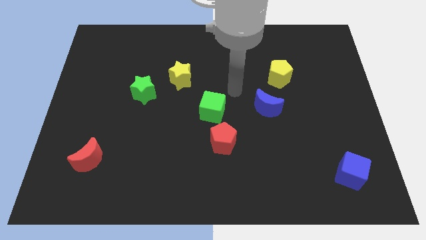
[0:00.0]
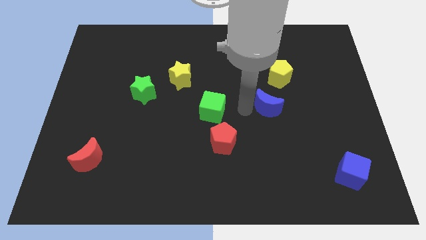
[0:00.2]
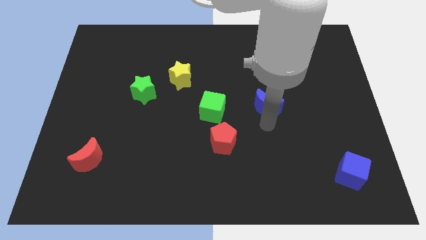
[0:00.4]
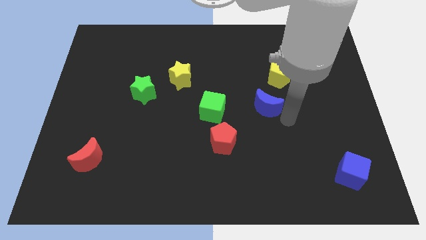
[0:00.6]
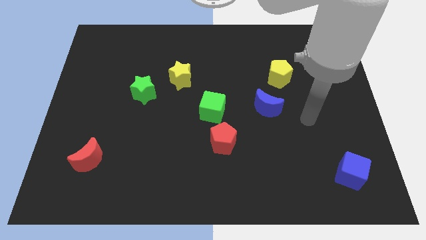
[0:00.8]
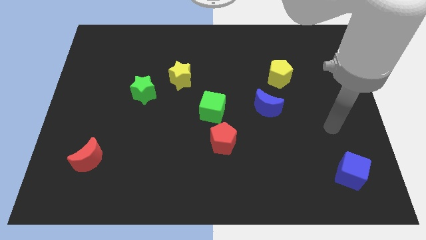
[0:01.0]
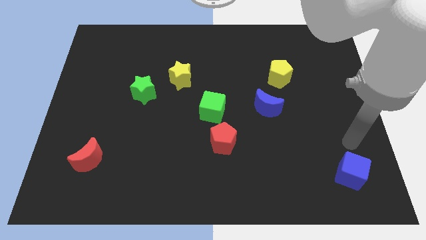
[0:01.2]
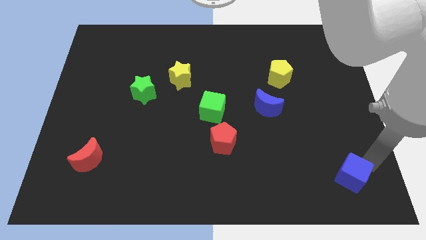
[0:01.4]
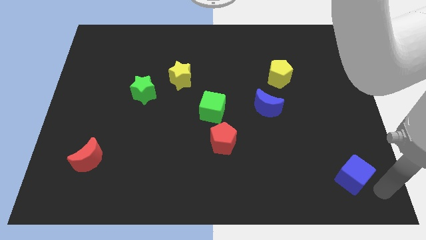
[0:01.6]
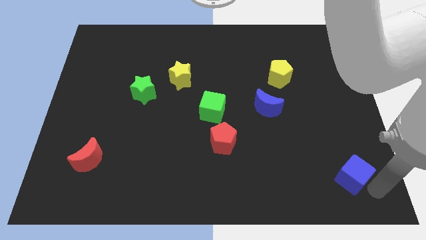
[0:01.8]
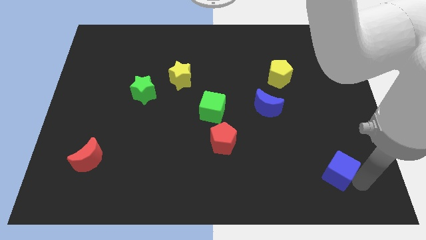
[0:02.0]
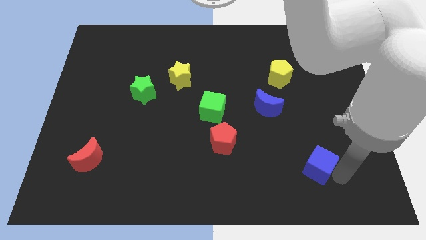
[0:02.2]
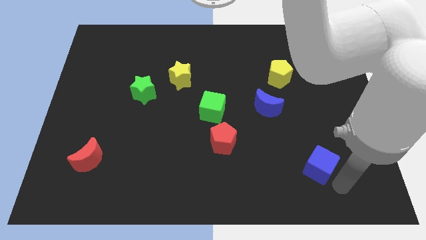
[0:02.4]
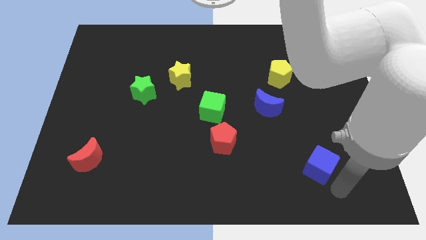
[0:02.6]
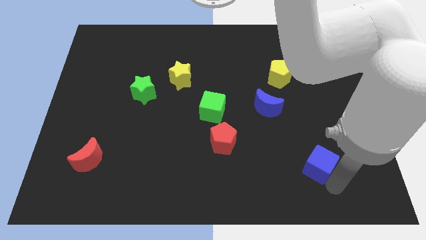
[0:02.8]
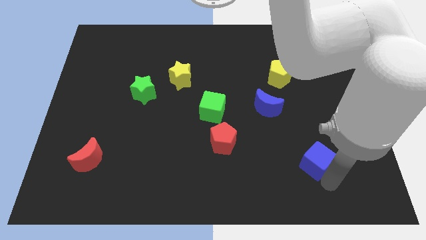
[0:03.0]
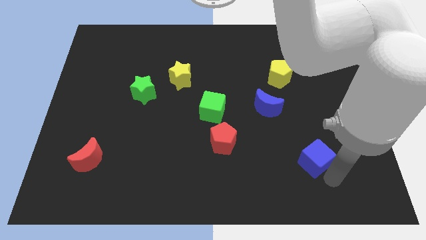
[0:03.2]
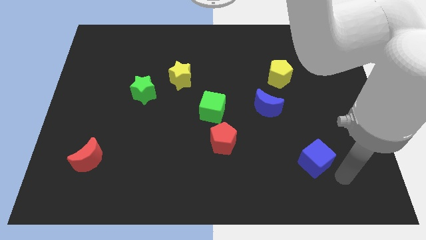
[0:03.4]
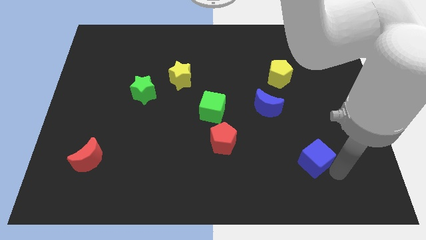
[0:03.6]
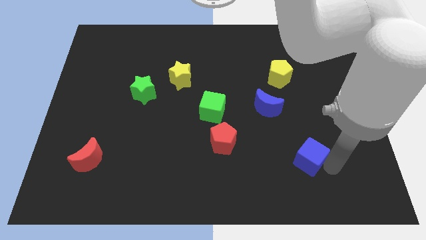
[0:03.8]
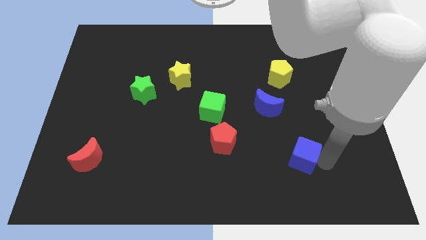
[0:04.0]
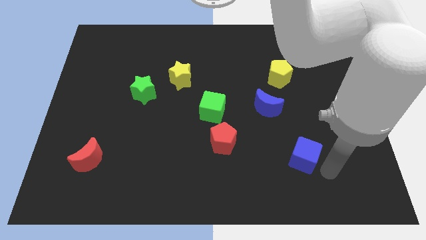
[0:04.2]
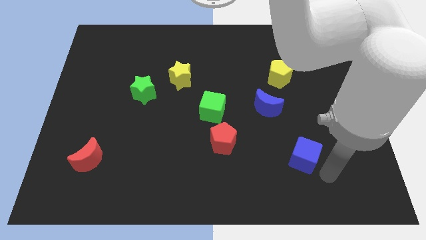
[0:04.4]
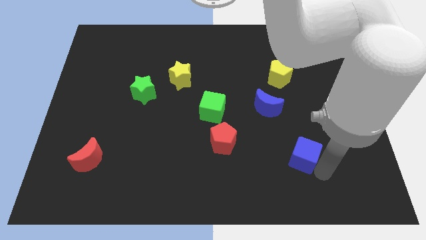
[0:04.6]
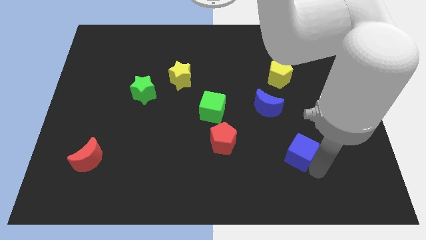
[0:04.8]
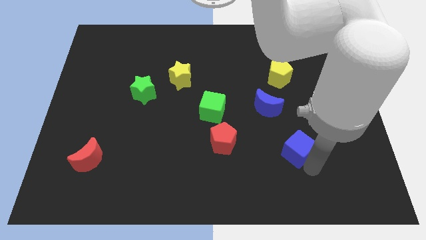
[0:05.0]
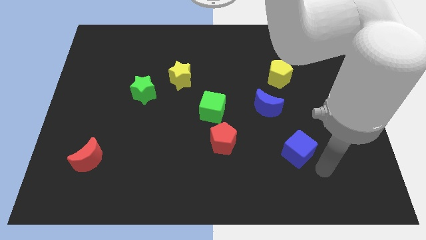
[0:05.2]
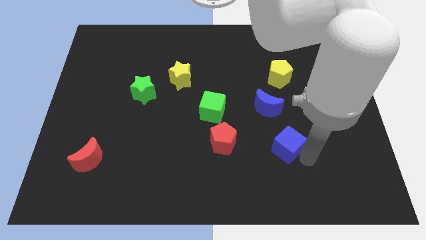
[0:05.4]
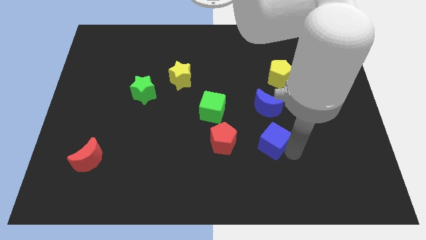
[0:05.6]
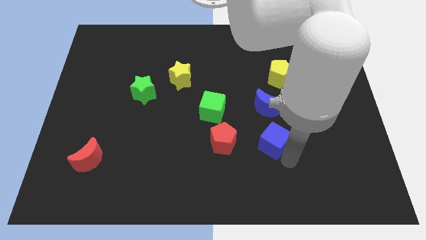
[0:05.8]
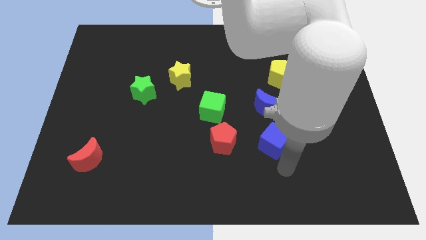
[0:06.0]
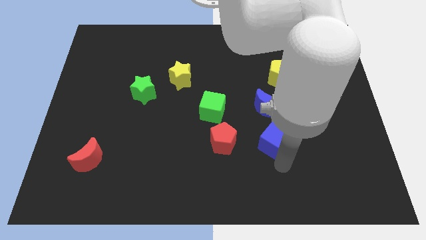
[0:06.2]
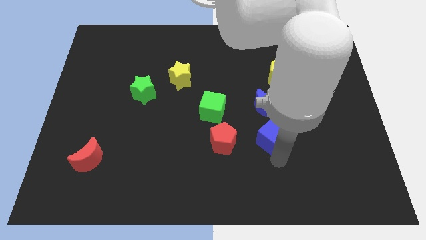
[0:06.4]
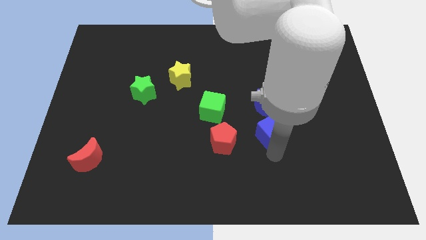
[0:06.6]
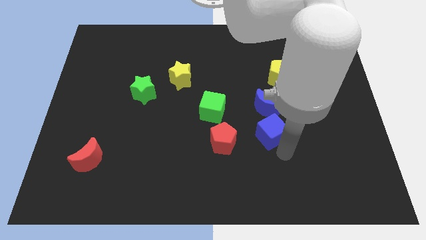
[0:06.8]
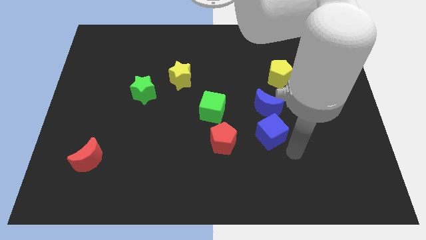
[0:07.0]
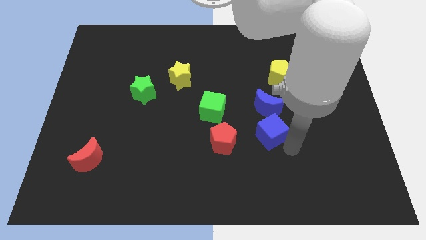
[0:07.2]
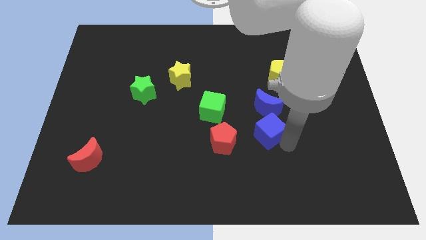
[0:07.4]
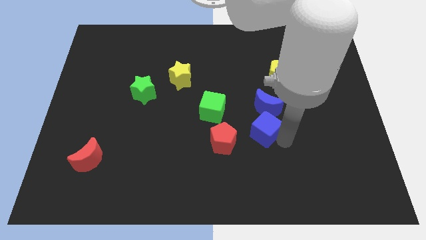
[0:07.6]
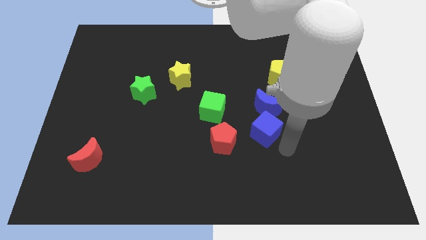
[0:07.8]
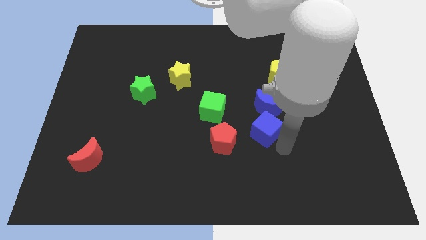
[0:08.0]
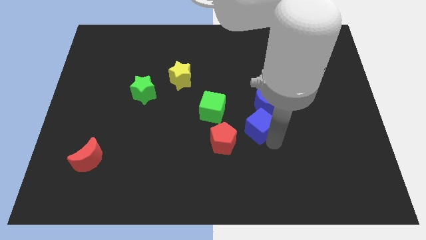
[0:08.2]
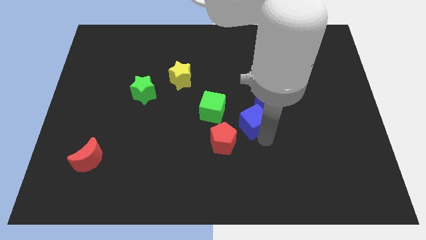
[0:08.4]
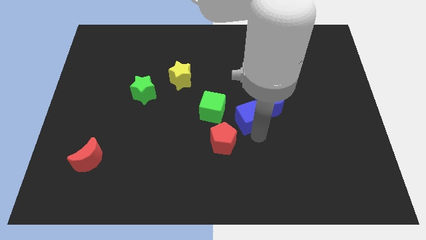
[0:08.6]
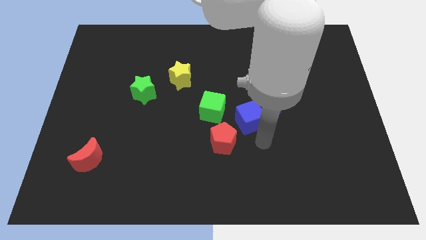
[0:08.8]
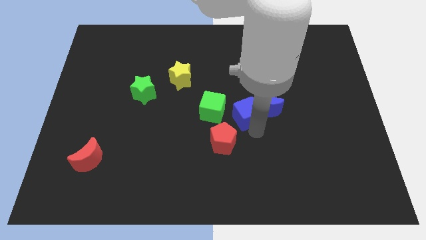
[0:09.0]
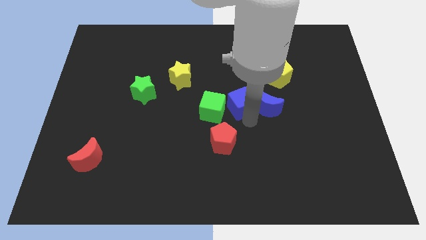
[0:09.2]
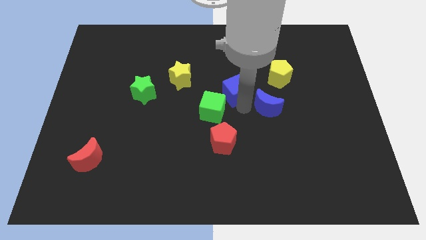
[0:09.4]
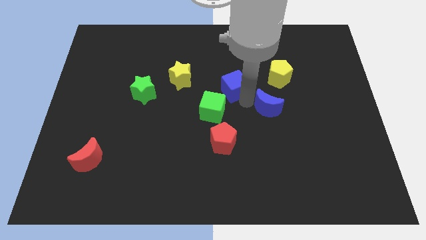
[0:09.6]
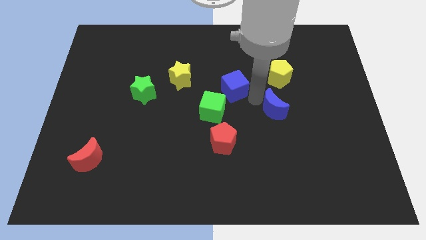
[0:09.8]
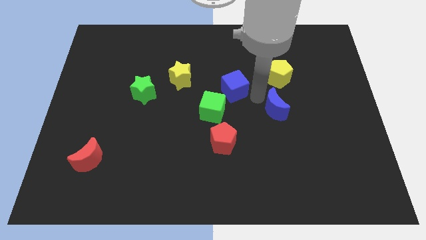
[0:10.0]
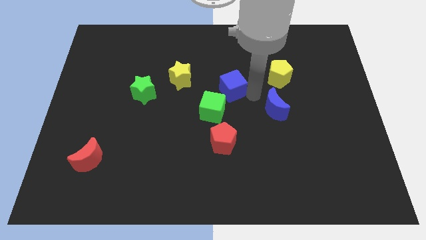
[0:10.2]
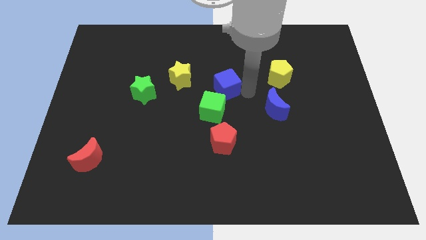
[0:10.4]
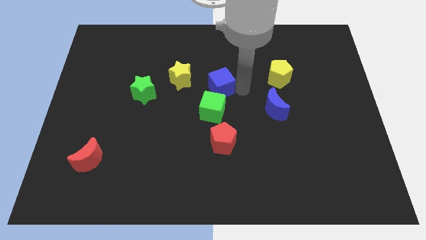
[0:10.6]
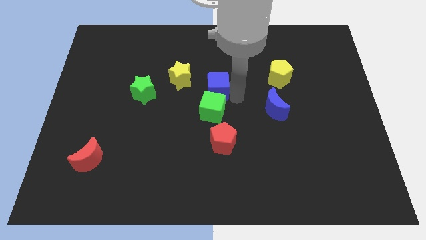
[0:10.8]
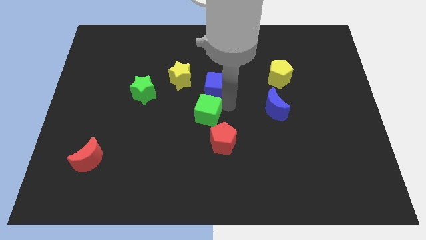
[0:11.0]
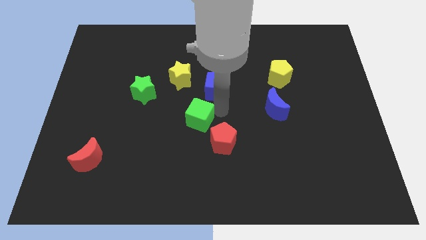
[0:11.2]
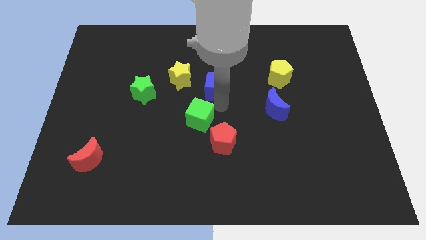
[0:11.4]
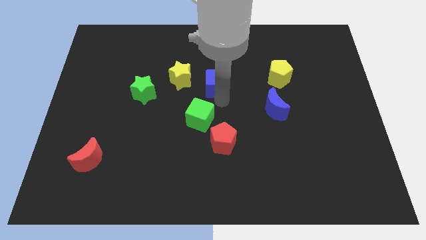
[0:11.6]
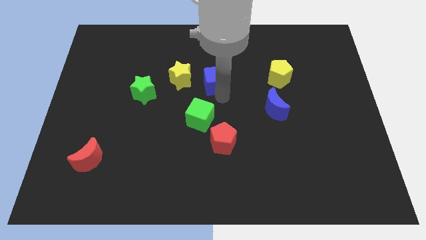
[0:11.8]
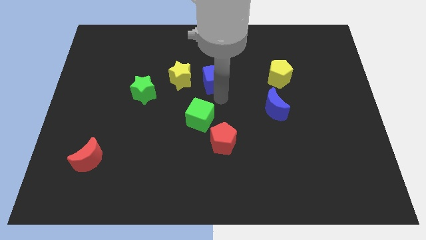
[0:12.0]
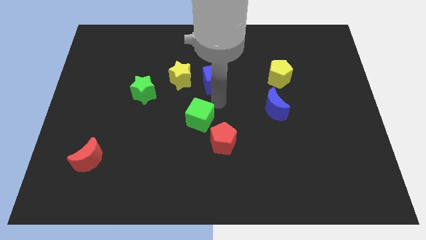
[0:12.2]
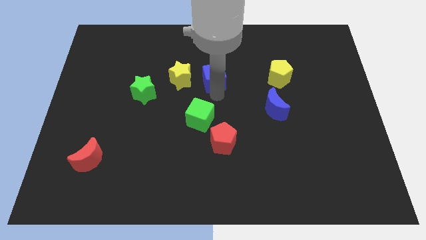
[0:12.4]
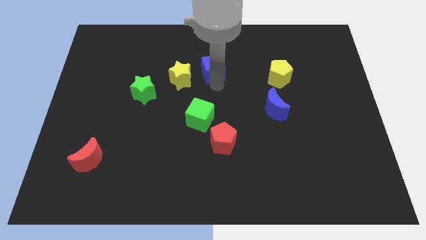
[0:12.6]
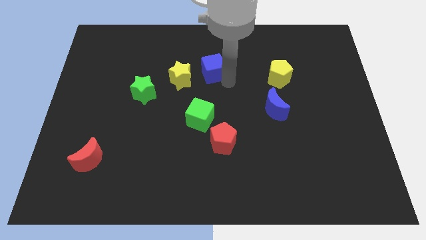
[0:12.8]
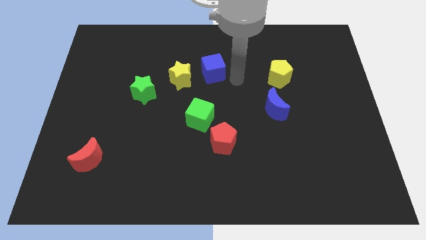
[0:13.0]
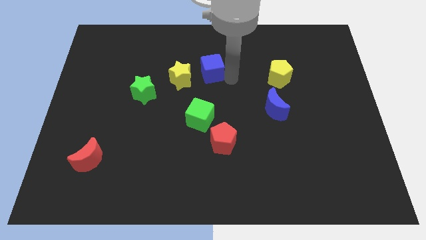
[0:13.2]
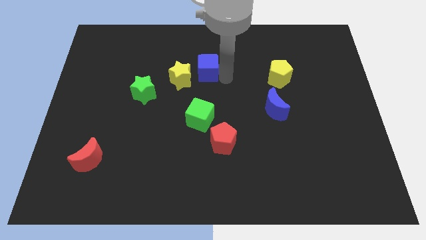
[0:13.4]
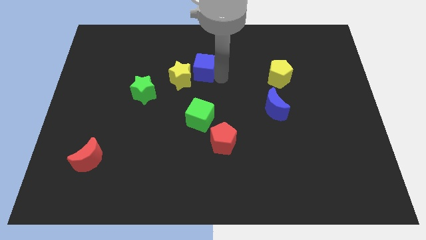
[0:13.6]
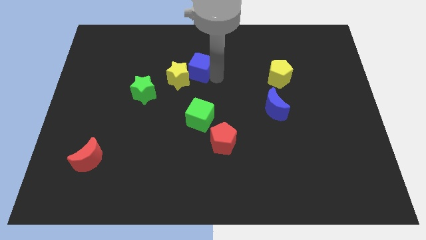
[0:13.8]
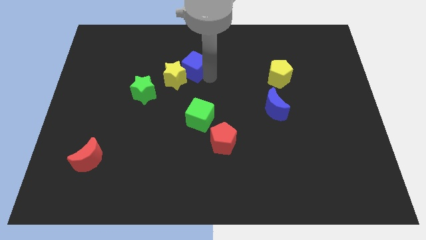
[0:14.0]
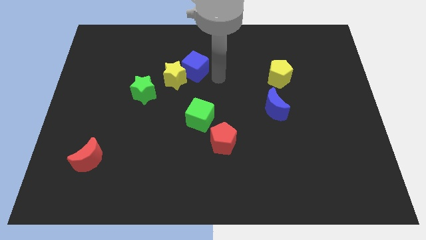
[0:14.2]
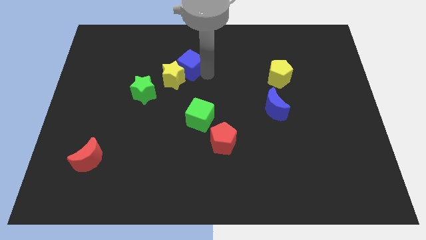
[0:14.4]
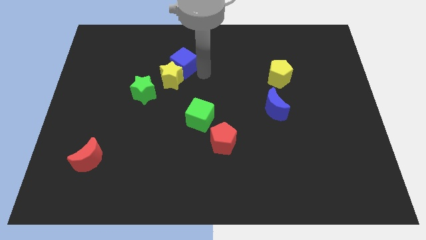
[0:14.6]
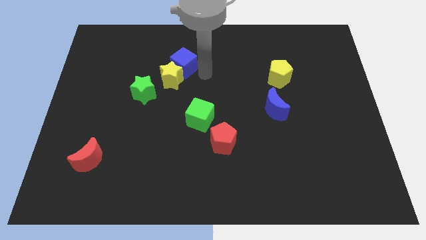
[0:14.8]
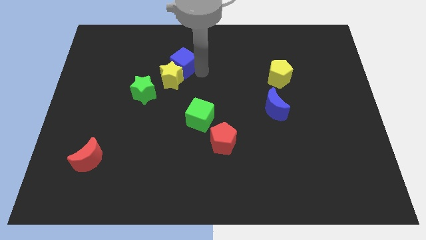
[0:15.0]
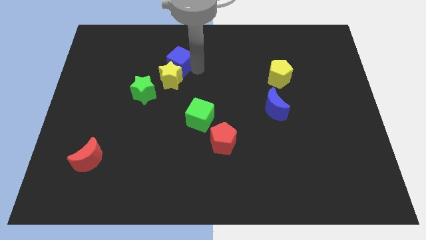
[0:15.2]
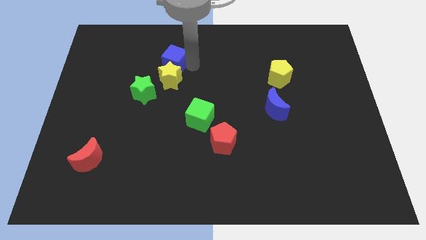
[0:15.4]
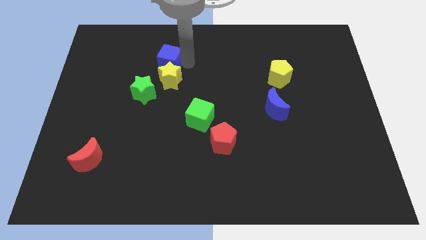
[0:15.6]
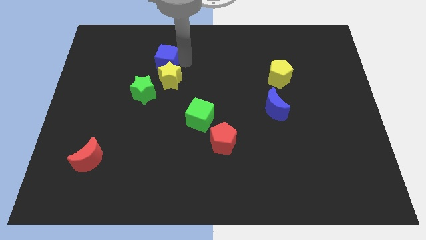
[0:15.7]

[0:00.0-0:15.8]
put the blue cube above the green star
